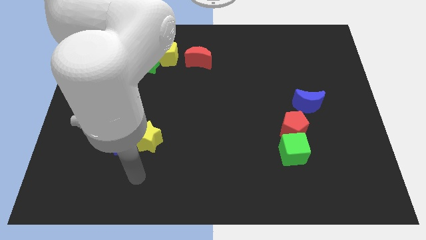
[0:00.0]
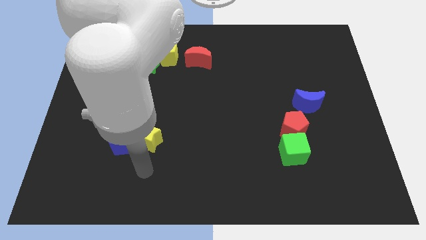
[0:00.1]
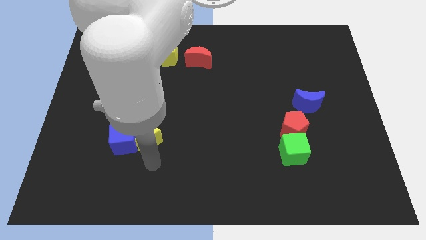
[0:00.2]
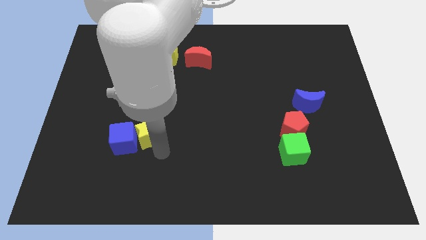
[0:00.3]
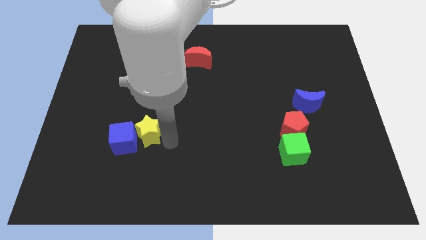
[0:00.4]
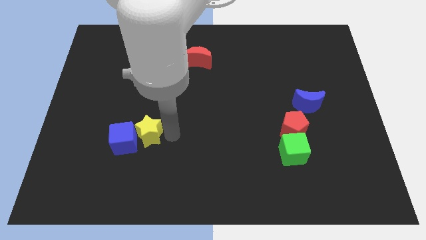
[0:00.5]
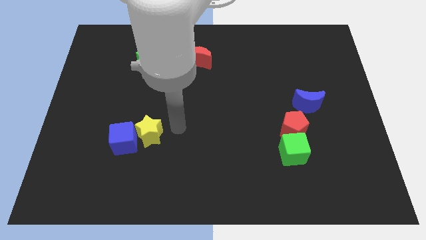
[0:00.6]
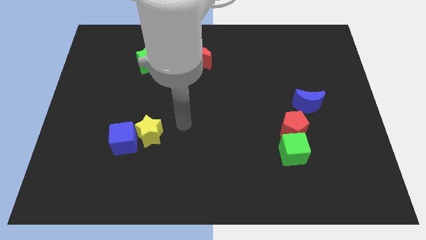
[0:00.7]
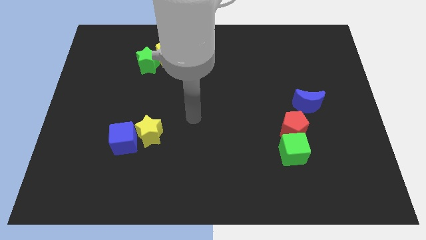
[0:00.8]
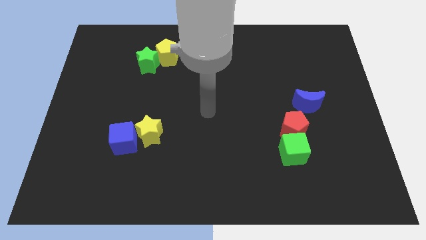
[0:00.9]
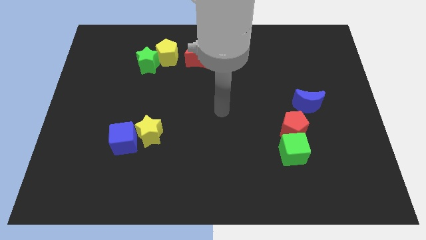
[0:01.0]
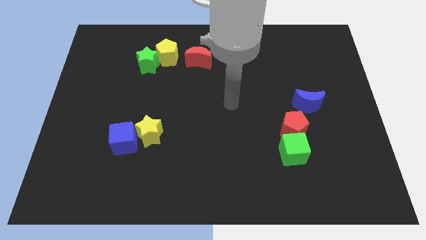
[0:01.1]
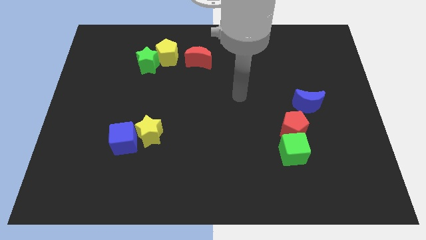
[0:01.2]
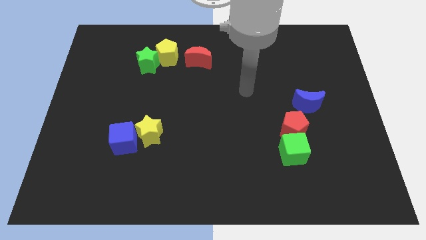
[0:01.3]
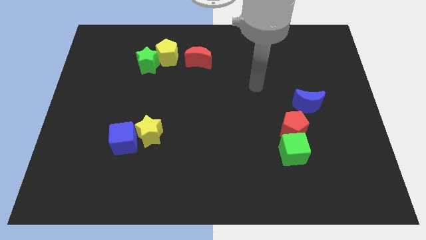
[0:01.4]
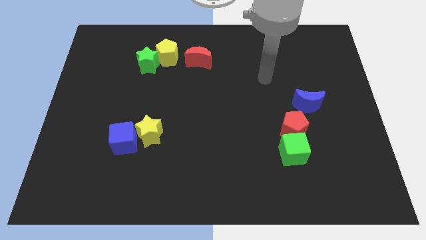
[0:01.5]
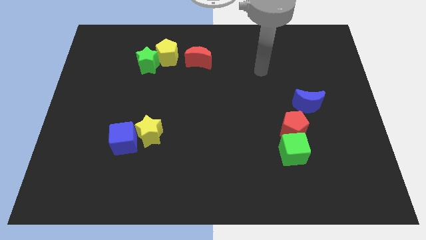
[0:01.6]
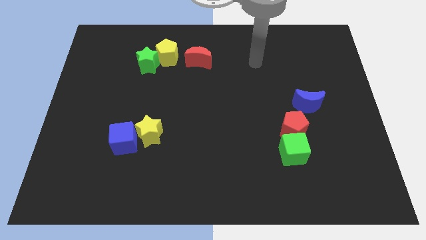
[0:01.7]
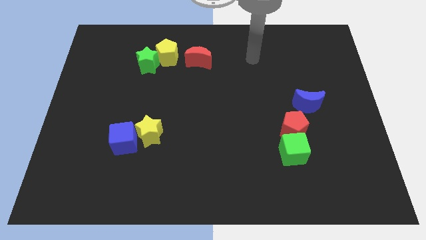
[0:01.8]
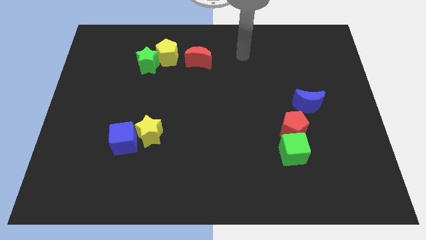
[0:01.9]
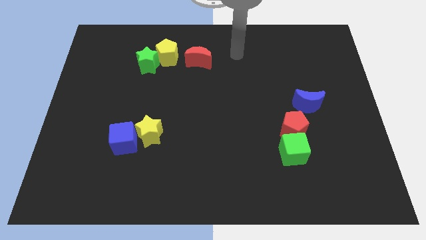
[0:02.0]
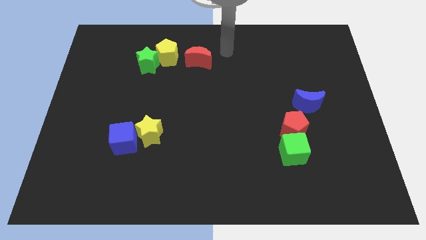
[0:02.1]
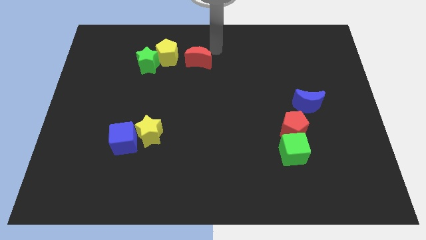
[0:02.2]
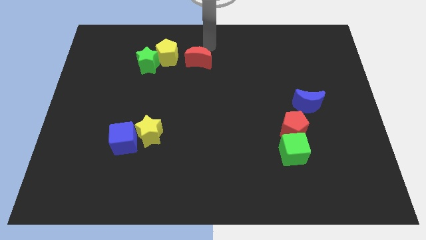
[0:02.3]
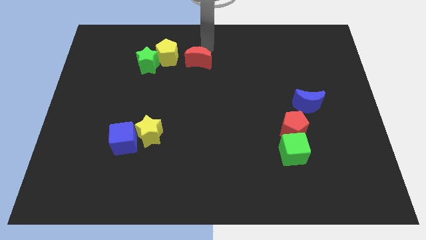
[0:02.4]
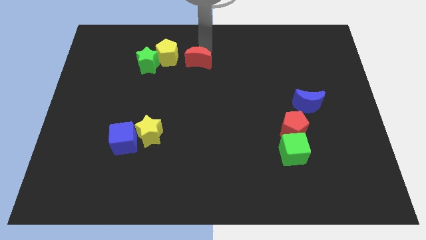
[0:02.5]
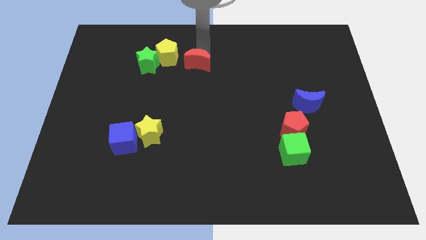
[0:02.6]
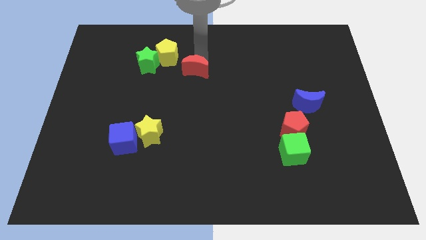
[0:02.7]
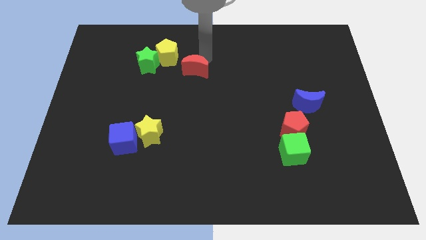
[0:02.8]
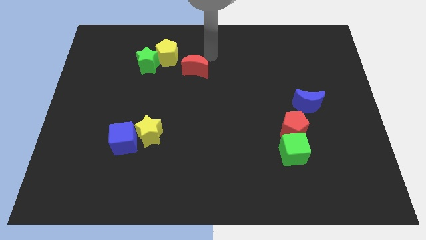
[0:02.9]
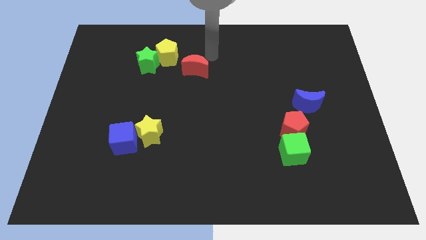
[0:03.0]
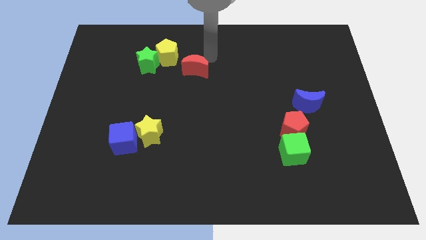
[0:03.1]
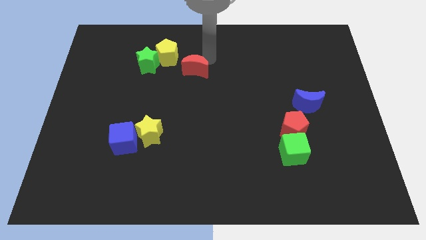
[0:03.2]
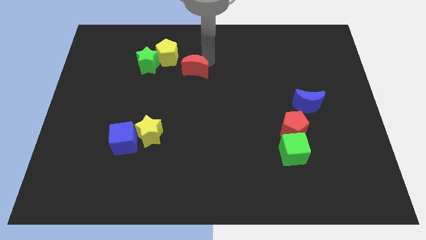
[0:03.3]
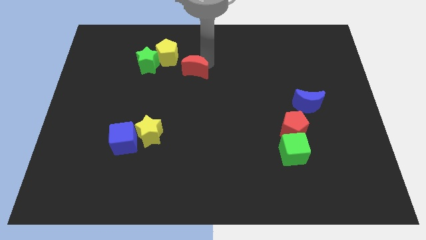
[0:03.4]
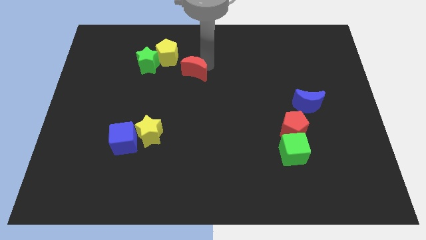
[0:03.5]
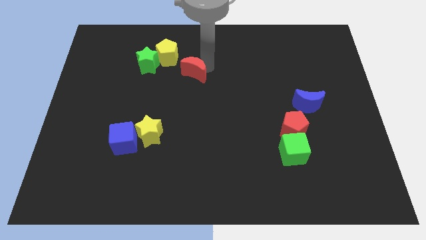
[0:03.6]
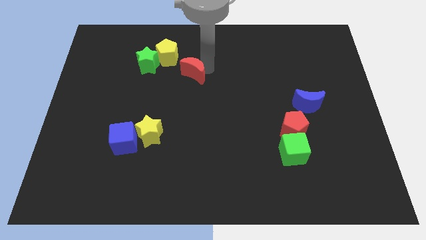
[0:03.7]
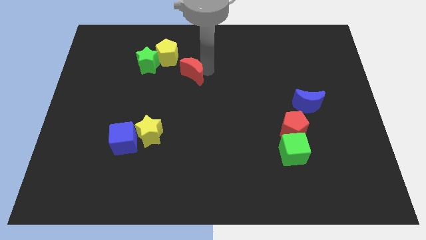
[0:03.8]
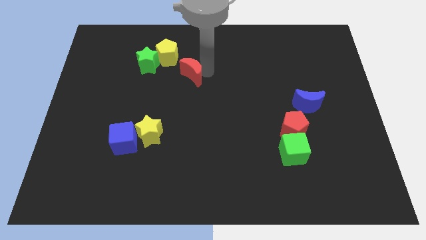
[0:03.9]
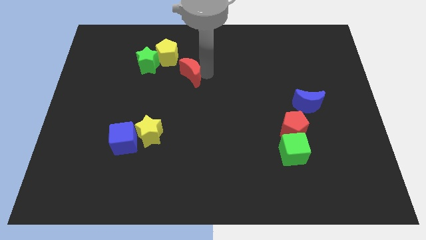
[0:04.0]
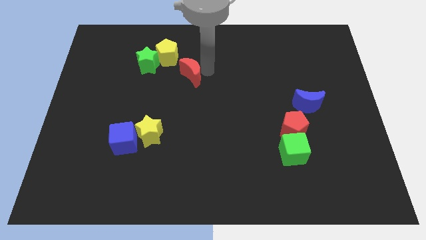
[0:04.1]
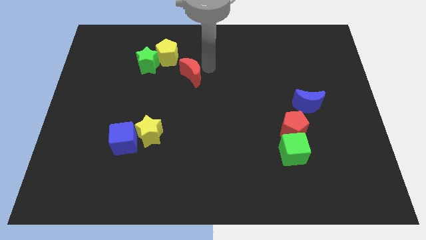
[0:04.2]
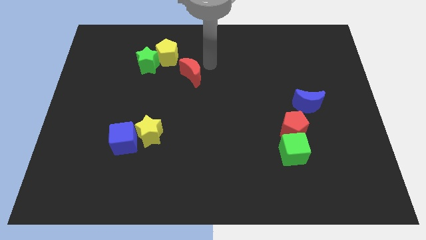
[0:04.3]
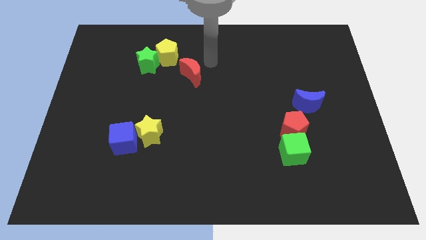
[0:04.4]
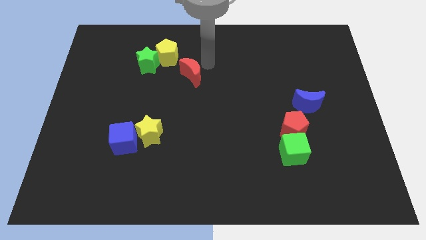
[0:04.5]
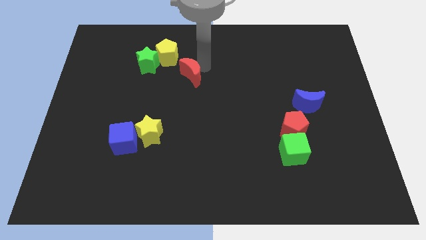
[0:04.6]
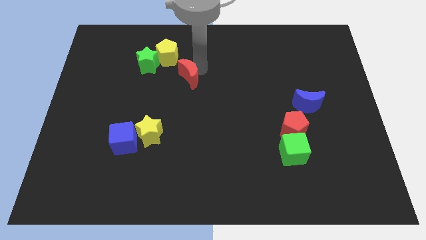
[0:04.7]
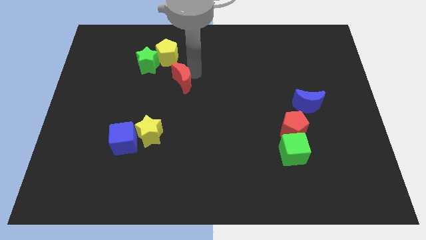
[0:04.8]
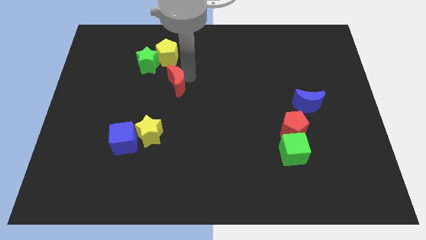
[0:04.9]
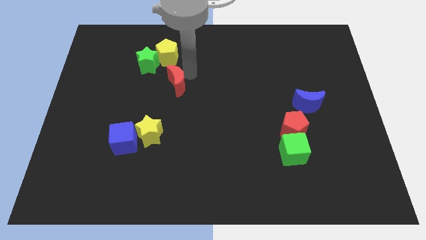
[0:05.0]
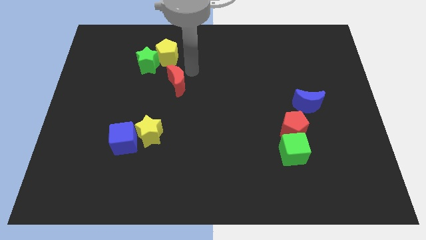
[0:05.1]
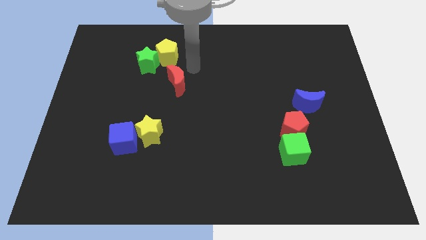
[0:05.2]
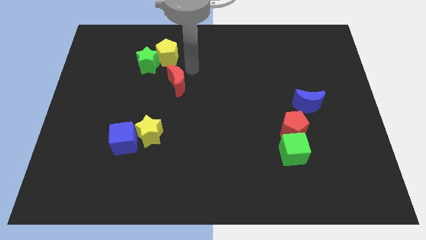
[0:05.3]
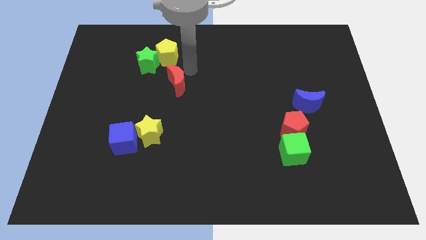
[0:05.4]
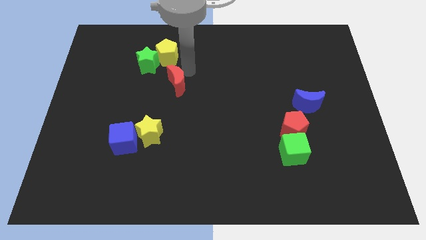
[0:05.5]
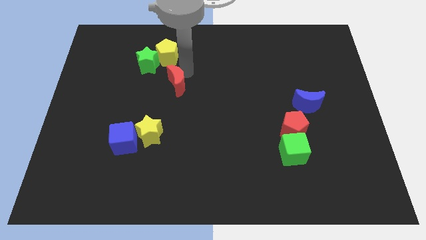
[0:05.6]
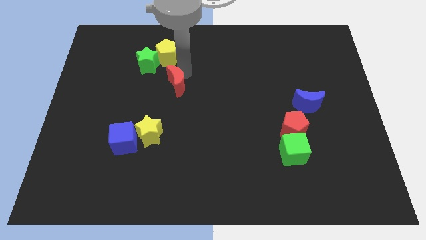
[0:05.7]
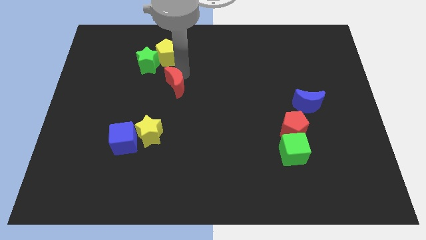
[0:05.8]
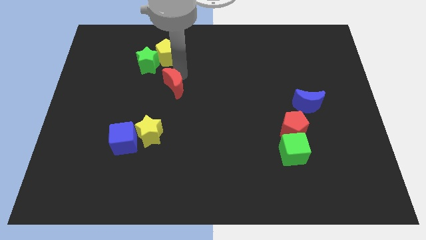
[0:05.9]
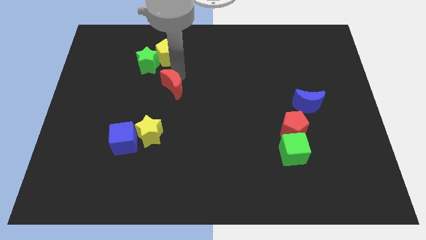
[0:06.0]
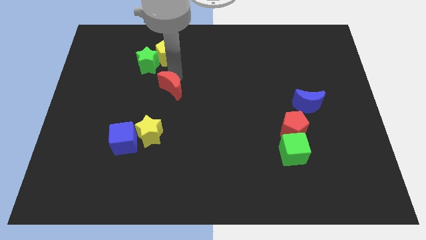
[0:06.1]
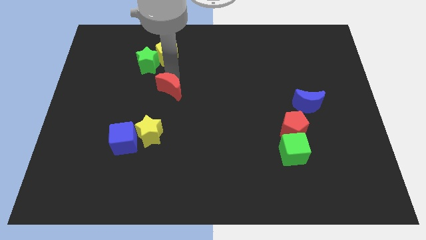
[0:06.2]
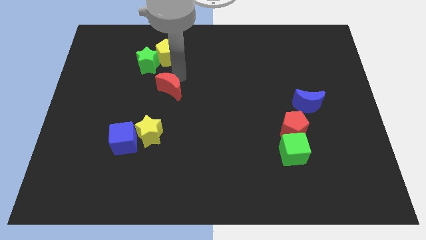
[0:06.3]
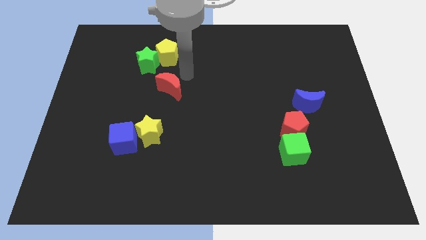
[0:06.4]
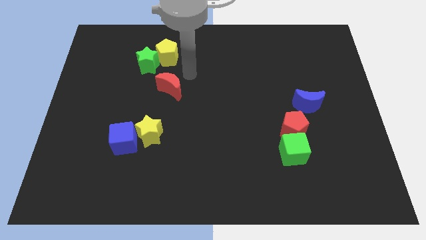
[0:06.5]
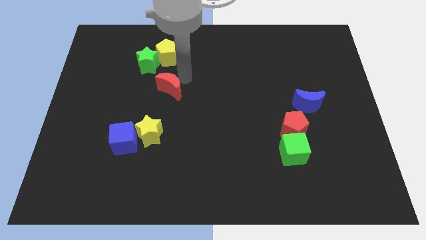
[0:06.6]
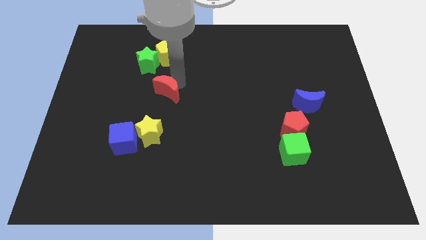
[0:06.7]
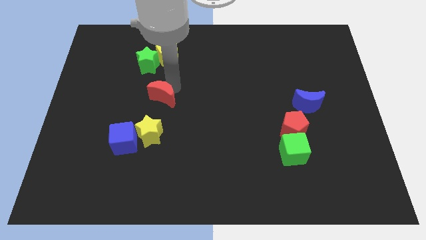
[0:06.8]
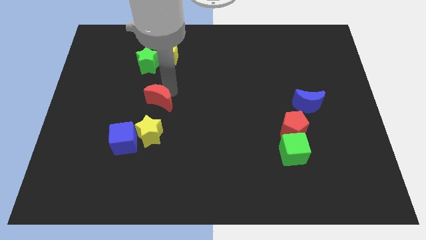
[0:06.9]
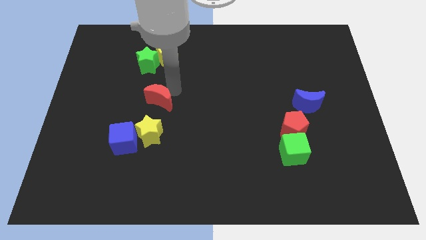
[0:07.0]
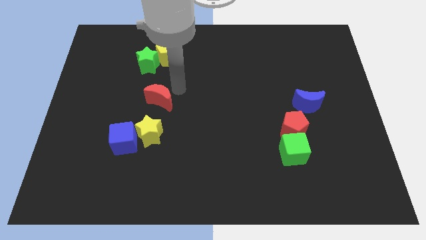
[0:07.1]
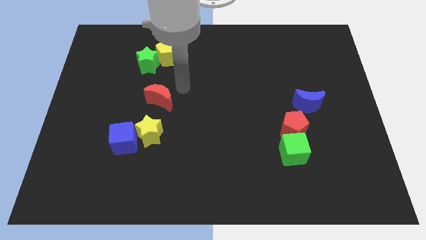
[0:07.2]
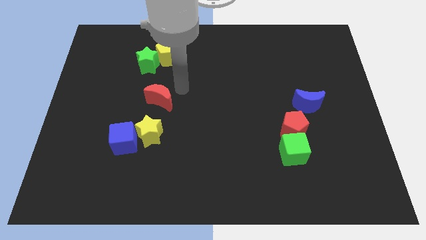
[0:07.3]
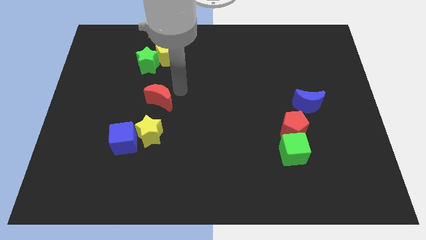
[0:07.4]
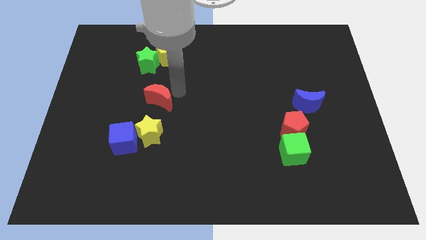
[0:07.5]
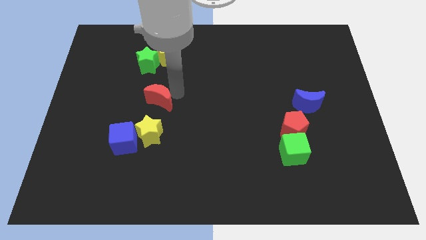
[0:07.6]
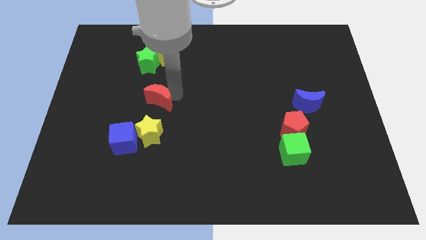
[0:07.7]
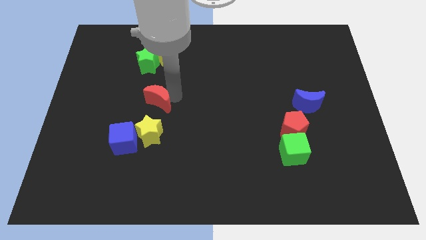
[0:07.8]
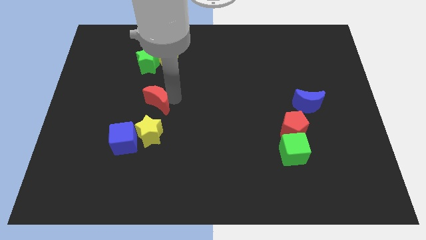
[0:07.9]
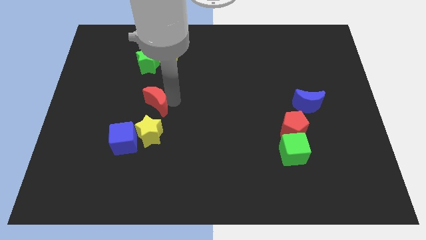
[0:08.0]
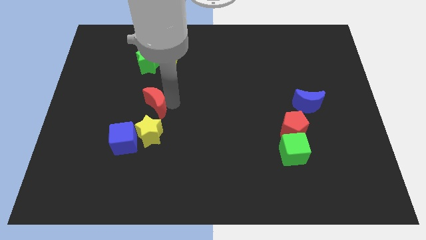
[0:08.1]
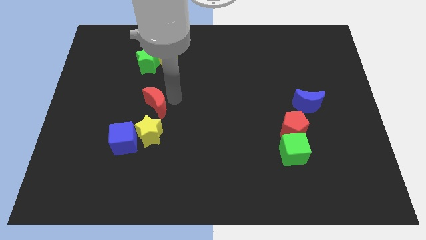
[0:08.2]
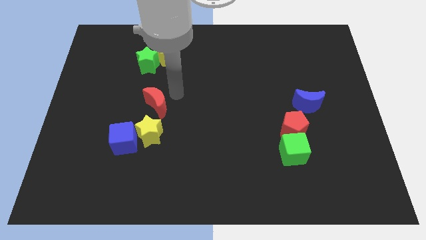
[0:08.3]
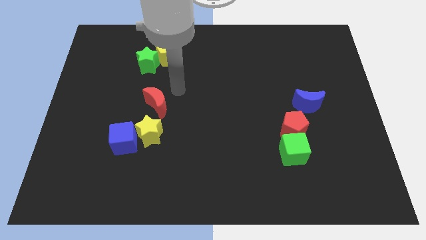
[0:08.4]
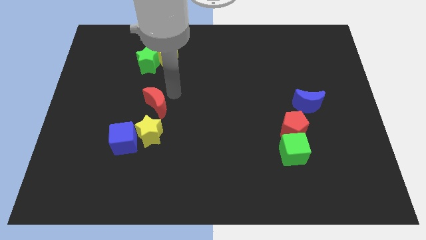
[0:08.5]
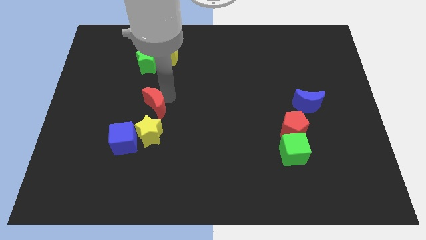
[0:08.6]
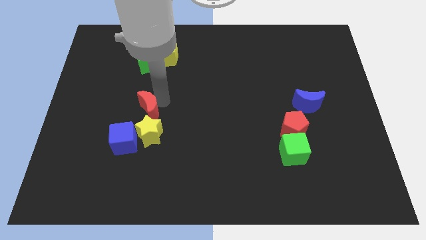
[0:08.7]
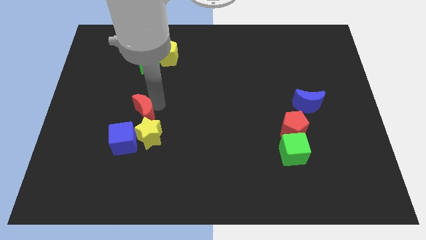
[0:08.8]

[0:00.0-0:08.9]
move the red moon downwards and left
